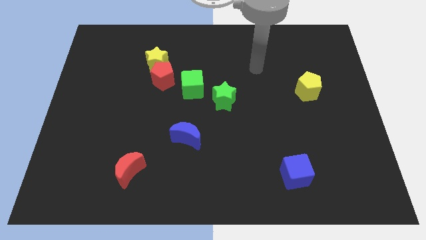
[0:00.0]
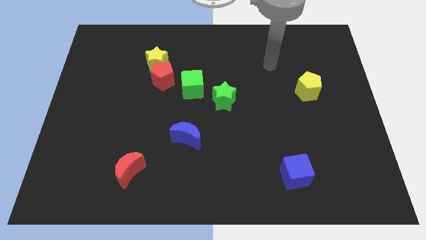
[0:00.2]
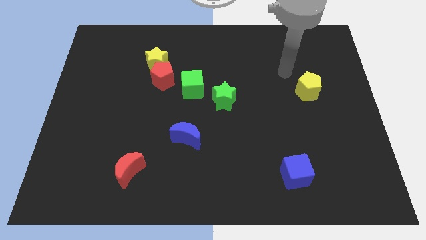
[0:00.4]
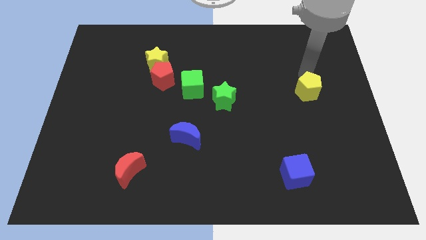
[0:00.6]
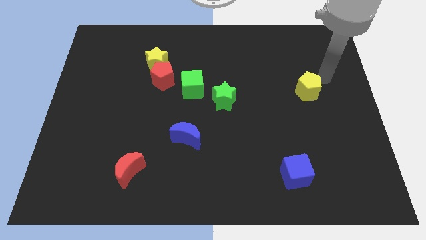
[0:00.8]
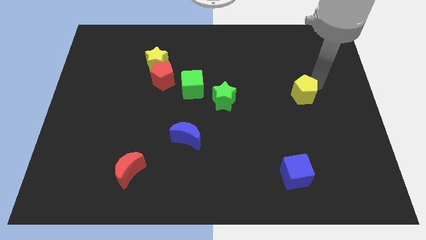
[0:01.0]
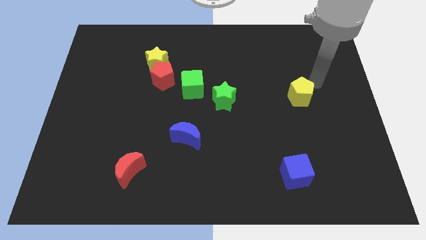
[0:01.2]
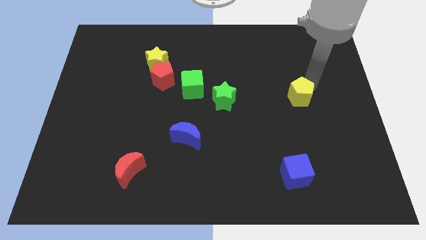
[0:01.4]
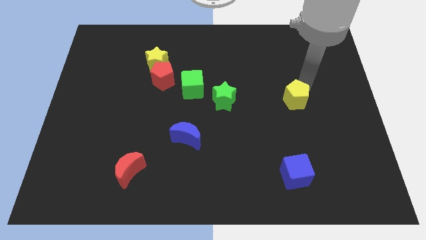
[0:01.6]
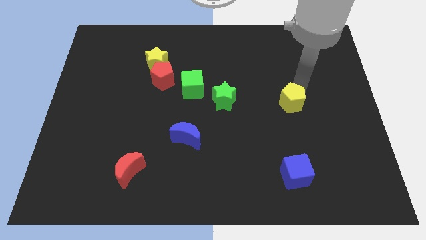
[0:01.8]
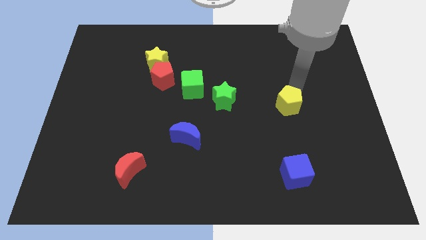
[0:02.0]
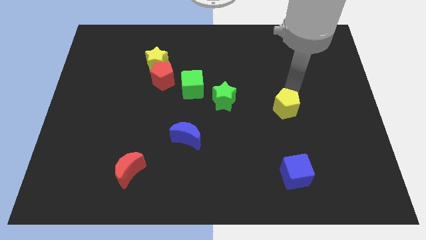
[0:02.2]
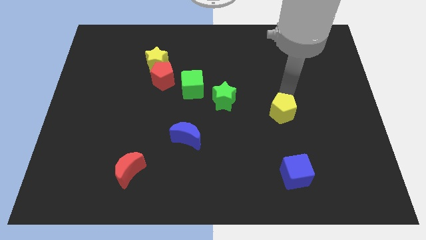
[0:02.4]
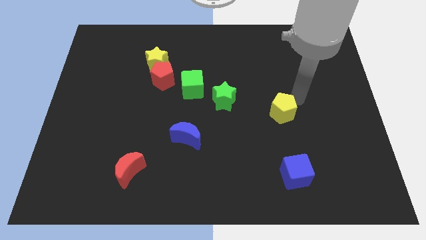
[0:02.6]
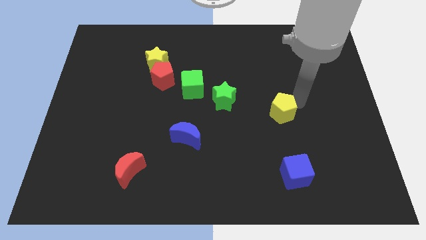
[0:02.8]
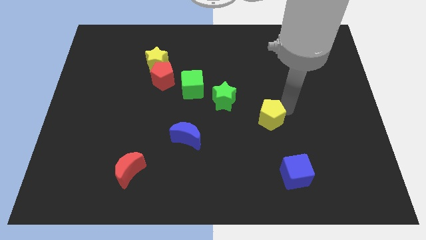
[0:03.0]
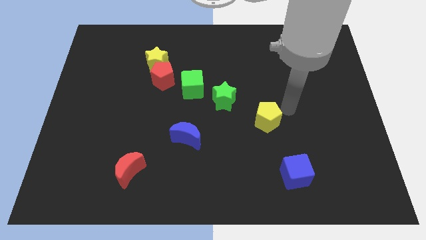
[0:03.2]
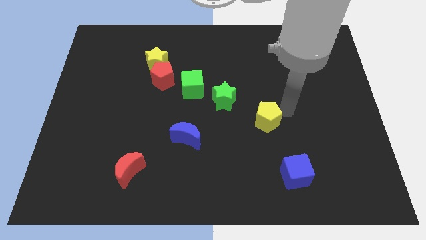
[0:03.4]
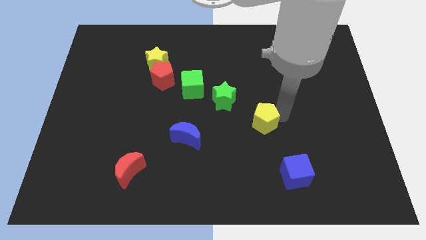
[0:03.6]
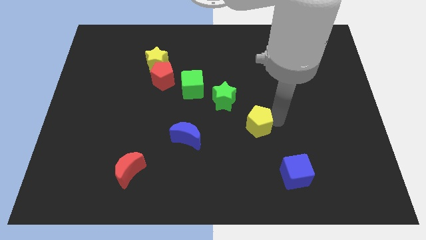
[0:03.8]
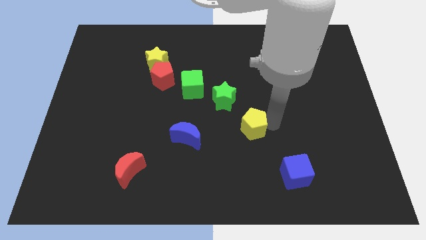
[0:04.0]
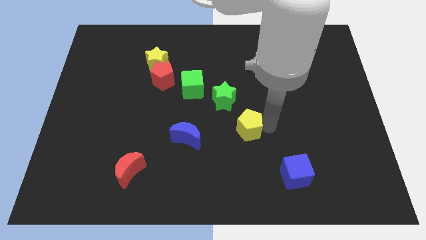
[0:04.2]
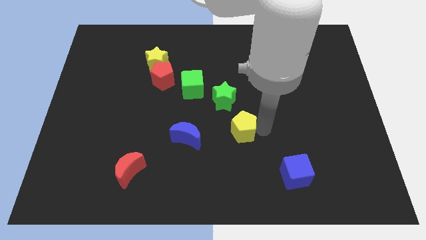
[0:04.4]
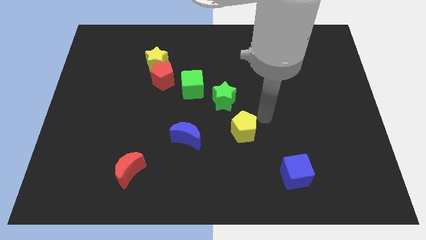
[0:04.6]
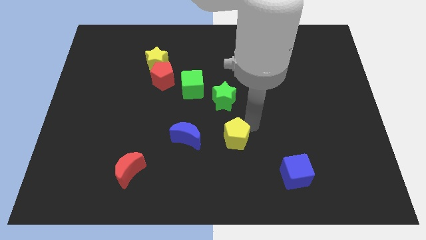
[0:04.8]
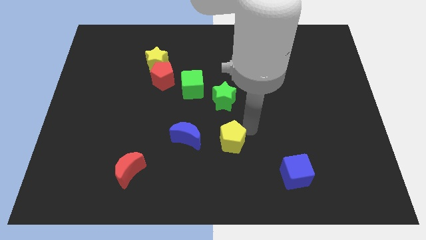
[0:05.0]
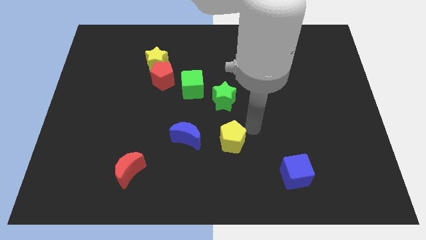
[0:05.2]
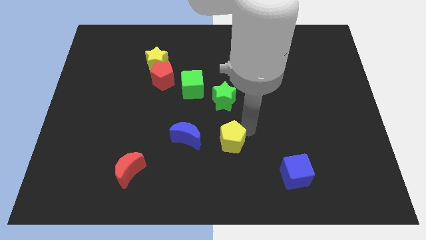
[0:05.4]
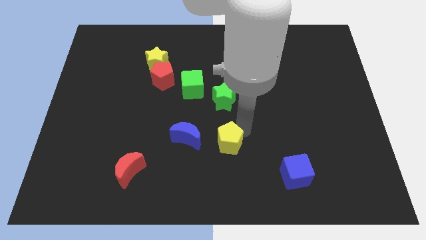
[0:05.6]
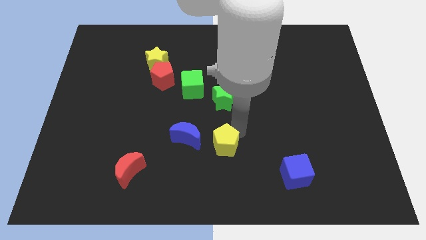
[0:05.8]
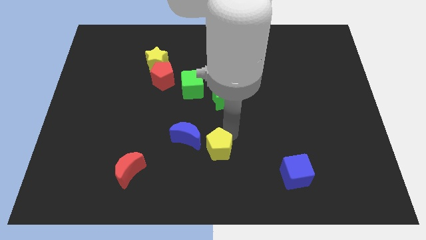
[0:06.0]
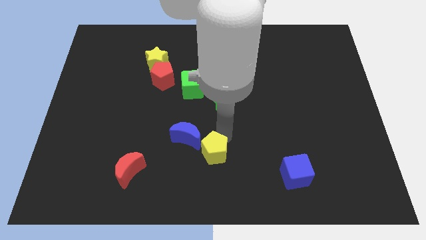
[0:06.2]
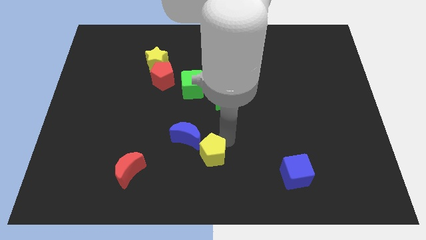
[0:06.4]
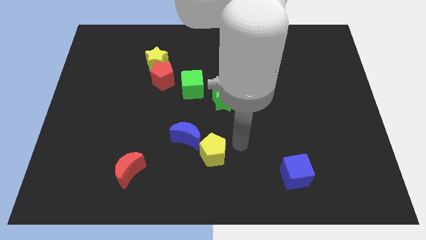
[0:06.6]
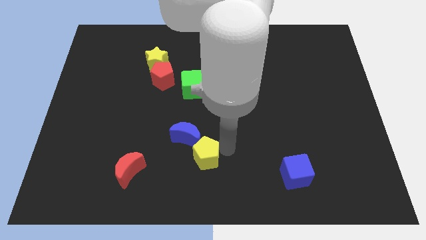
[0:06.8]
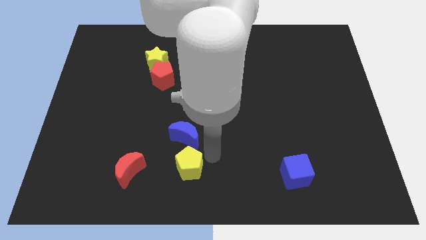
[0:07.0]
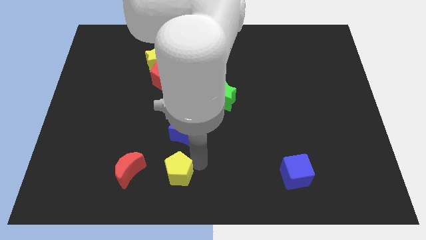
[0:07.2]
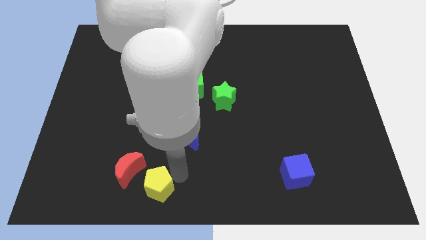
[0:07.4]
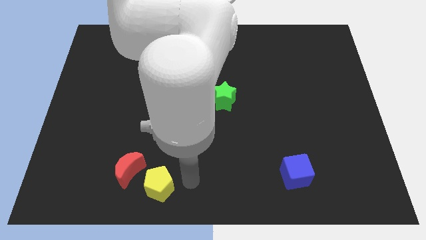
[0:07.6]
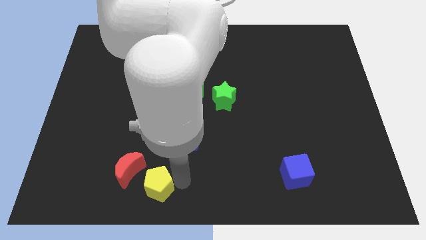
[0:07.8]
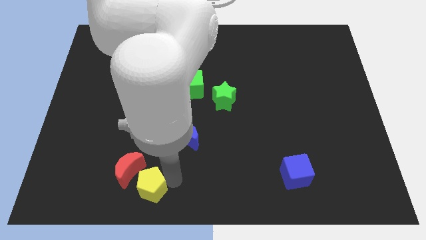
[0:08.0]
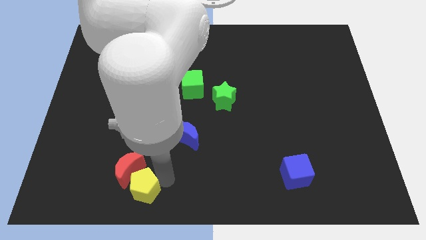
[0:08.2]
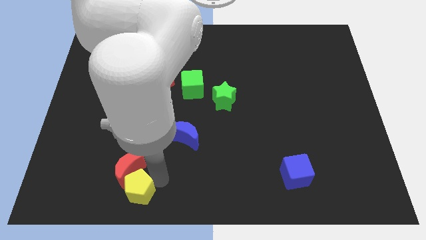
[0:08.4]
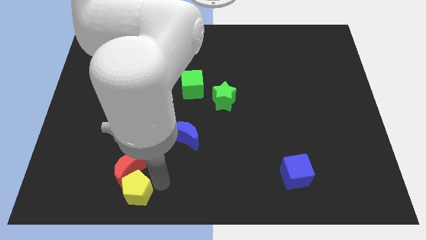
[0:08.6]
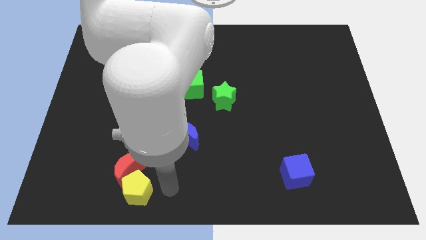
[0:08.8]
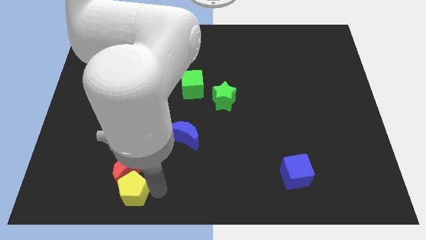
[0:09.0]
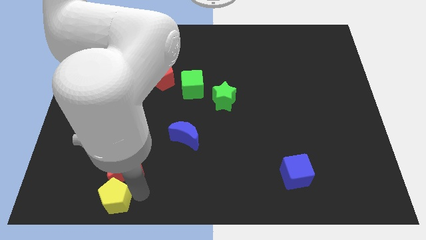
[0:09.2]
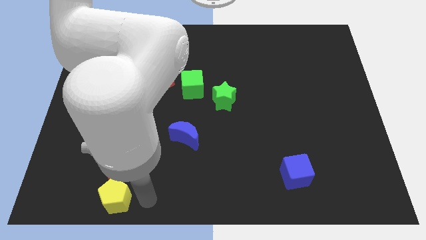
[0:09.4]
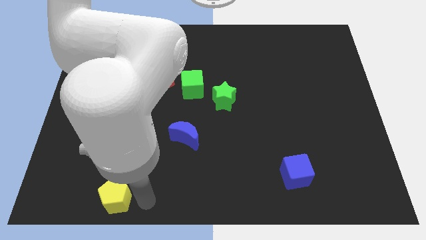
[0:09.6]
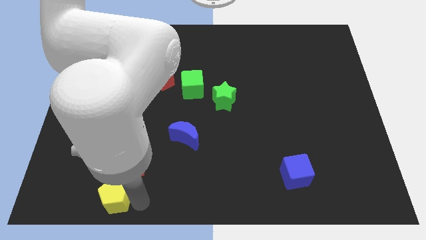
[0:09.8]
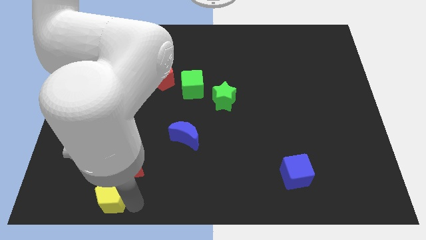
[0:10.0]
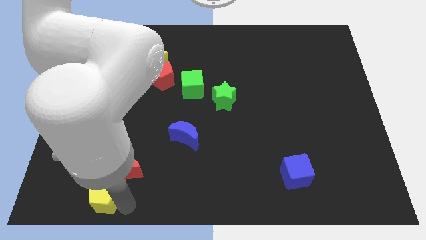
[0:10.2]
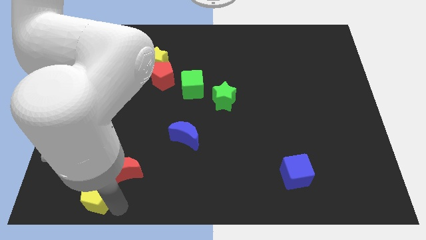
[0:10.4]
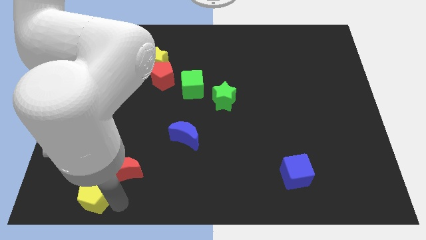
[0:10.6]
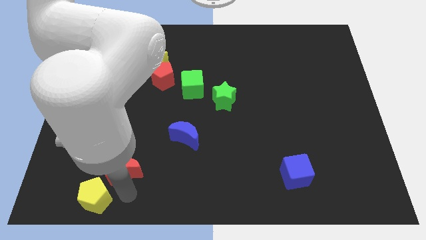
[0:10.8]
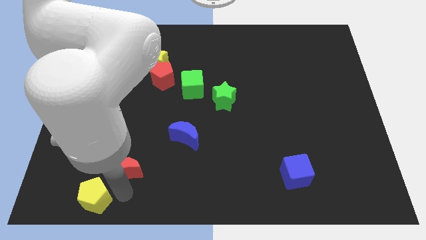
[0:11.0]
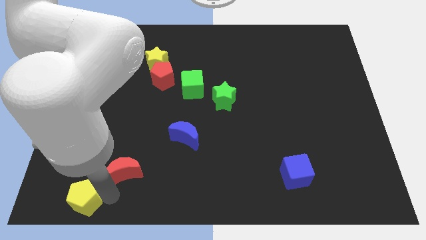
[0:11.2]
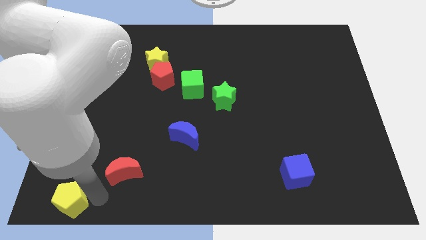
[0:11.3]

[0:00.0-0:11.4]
push the yellow pentagon to the bottom left
